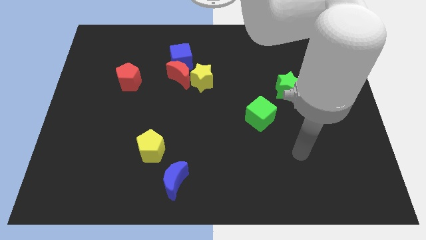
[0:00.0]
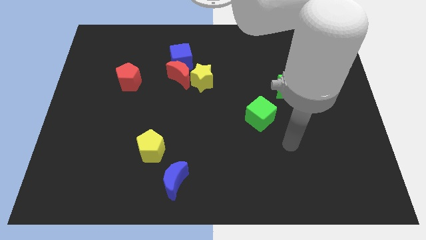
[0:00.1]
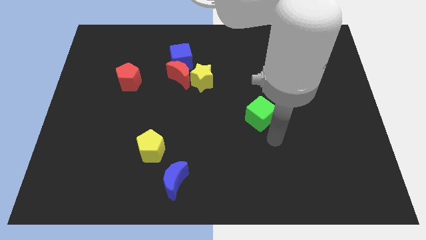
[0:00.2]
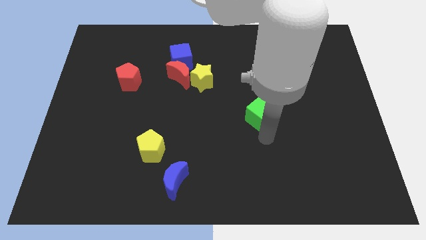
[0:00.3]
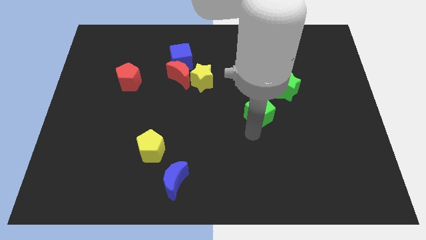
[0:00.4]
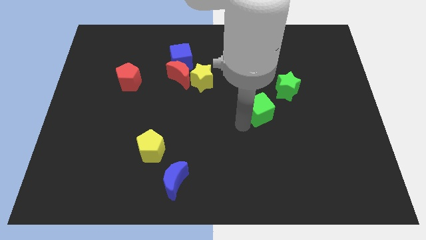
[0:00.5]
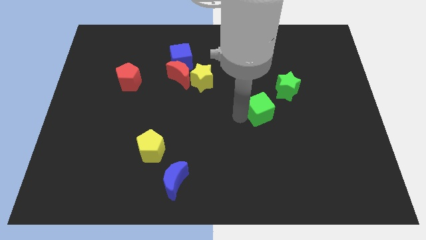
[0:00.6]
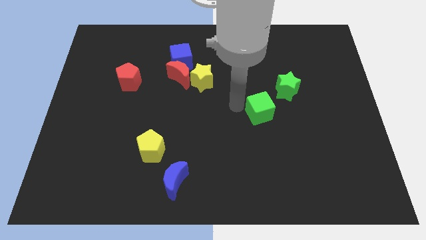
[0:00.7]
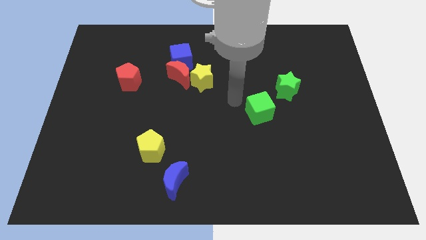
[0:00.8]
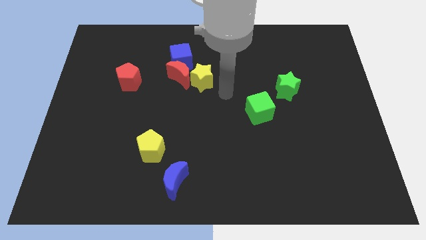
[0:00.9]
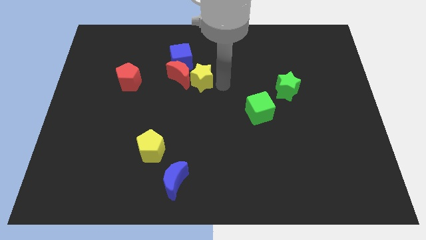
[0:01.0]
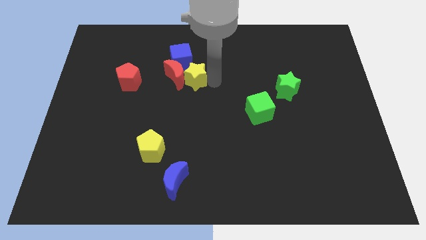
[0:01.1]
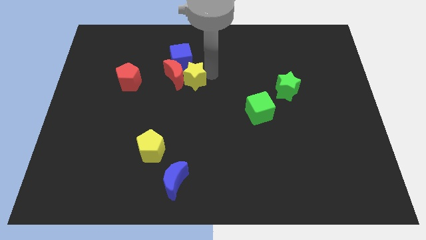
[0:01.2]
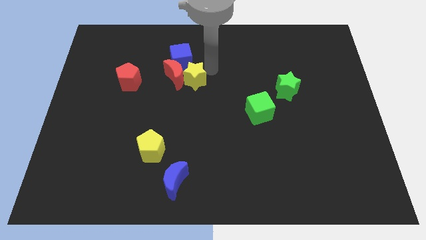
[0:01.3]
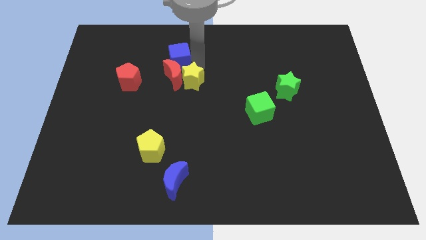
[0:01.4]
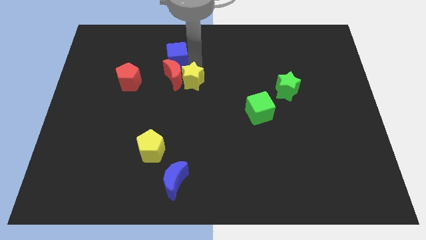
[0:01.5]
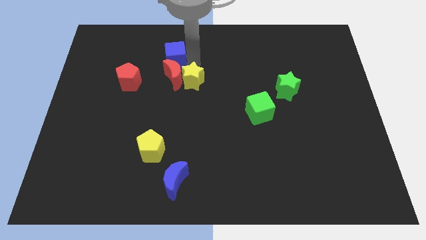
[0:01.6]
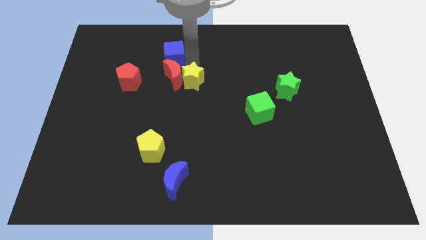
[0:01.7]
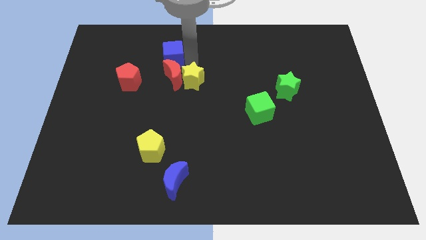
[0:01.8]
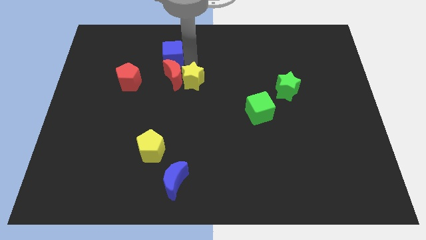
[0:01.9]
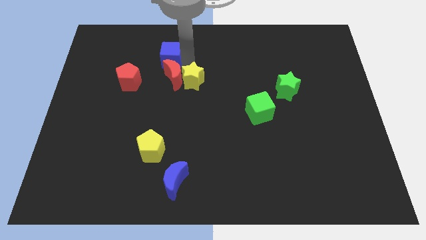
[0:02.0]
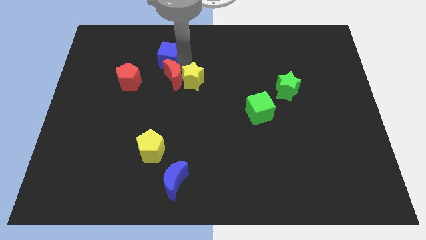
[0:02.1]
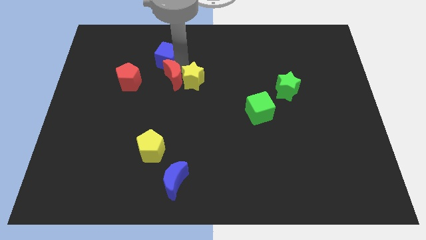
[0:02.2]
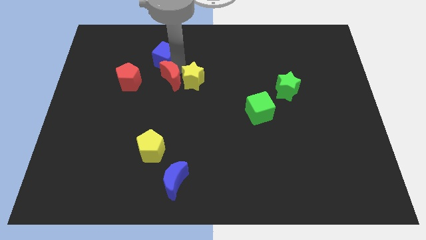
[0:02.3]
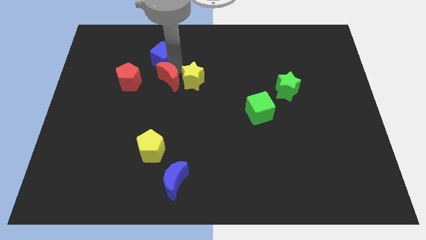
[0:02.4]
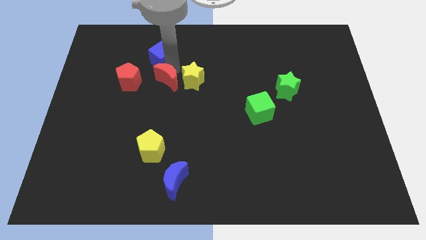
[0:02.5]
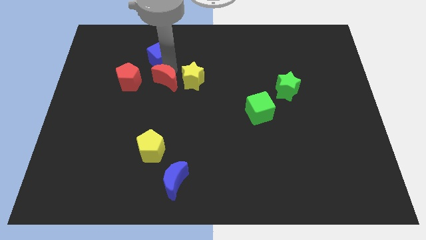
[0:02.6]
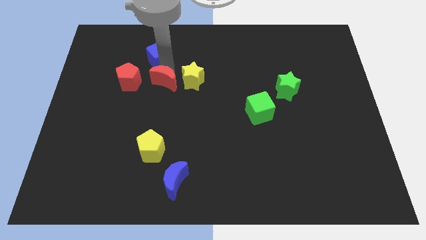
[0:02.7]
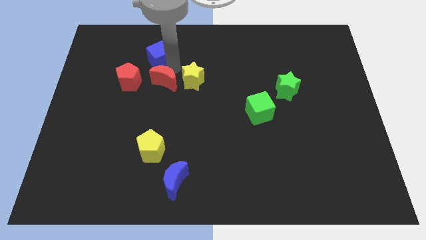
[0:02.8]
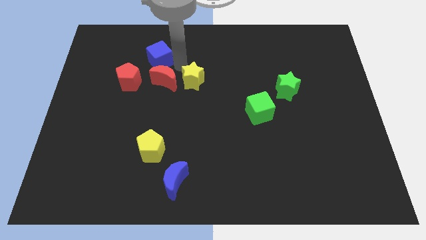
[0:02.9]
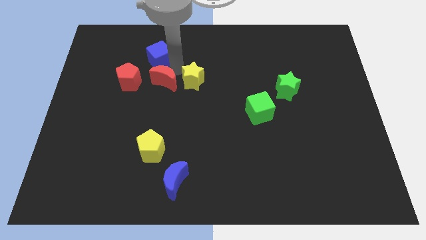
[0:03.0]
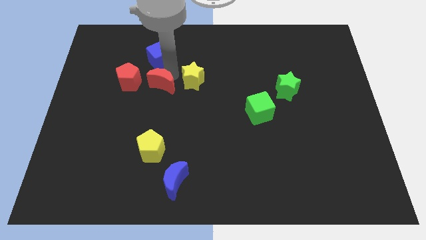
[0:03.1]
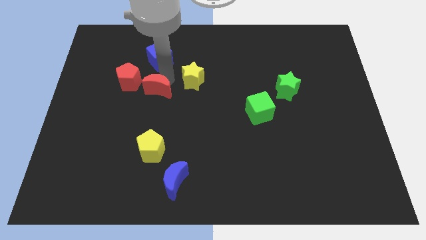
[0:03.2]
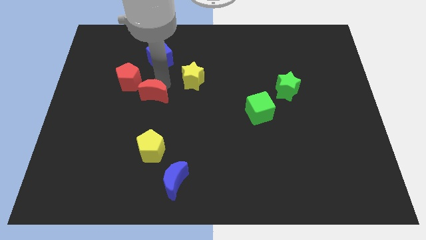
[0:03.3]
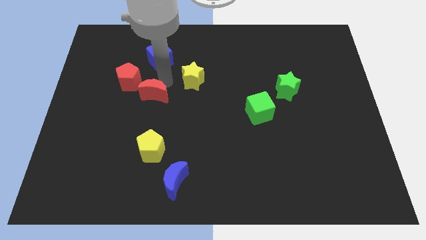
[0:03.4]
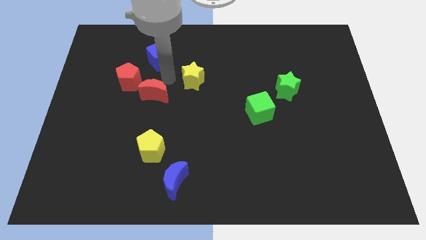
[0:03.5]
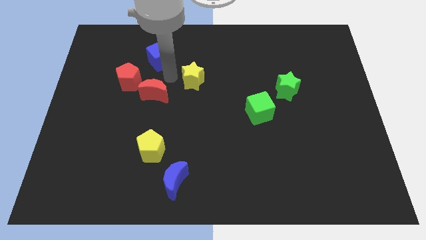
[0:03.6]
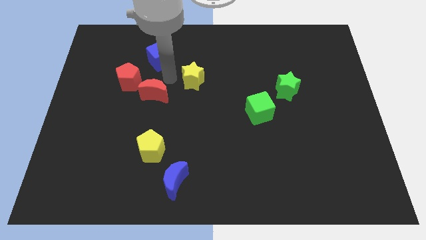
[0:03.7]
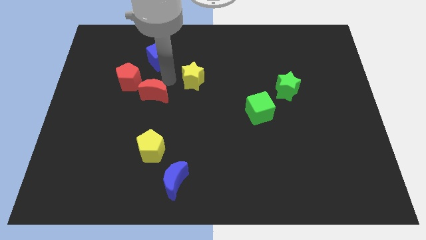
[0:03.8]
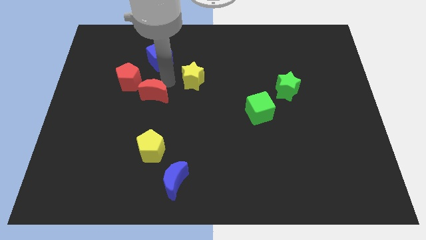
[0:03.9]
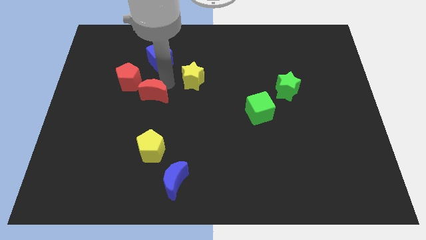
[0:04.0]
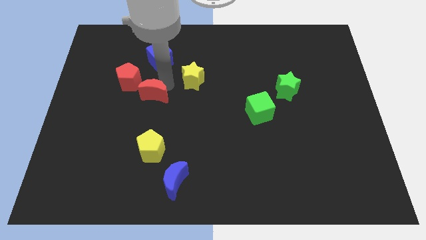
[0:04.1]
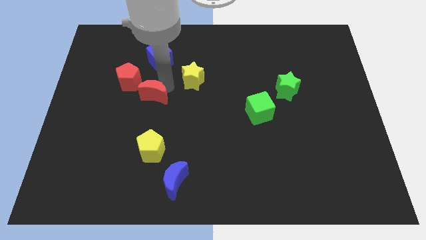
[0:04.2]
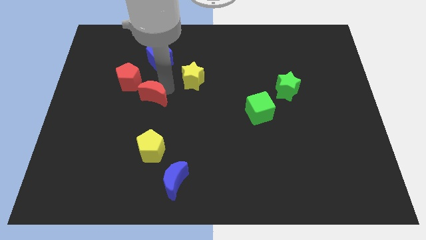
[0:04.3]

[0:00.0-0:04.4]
separate the red moon from the blue cube and yellow star

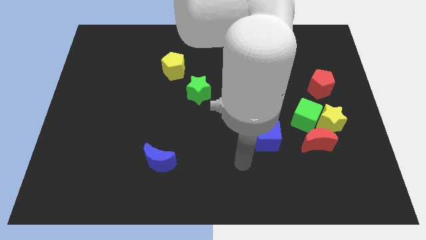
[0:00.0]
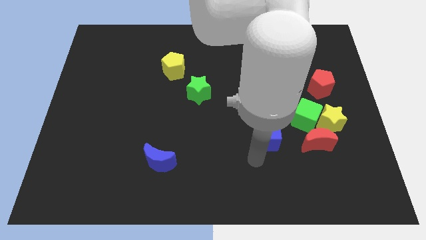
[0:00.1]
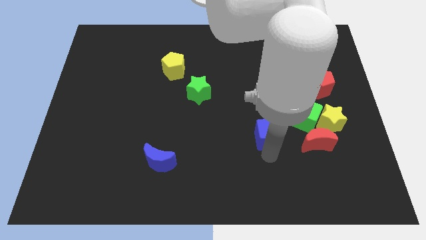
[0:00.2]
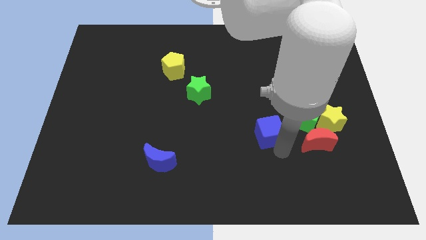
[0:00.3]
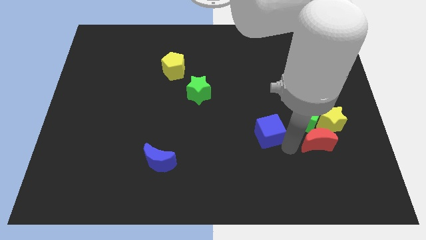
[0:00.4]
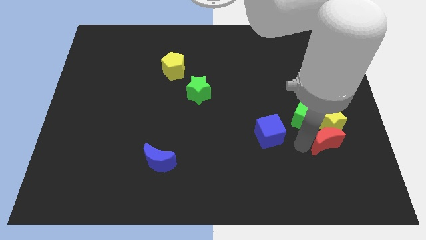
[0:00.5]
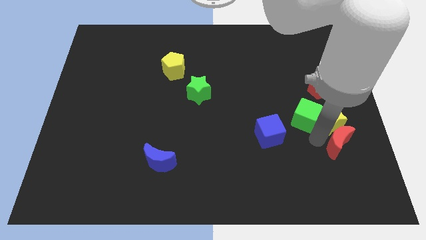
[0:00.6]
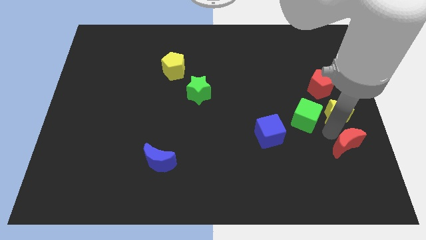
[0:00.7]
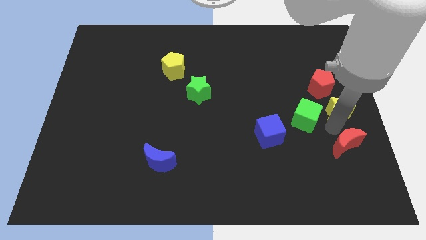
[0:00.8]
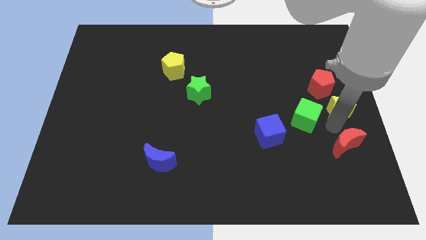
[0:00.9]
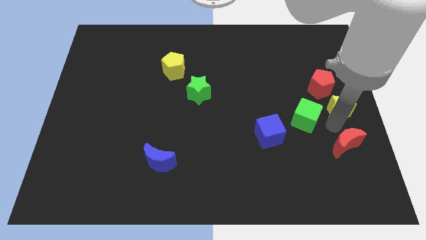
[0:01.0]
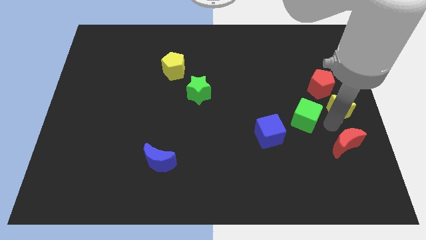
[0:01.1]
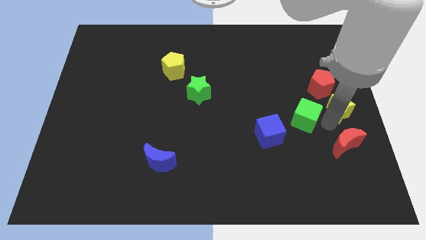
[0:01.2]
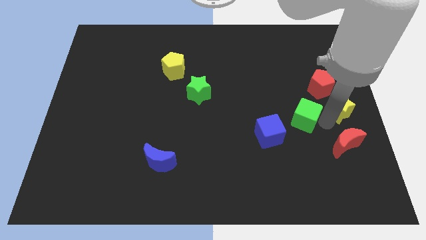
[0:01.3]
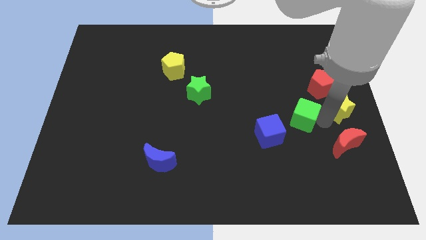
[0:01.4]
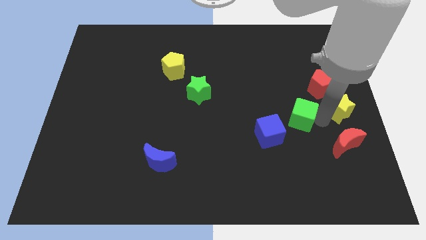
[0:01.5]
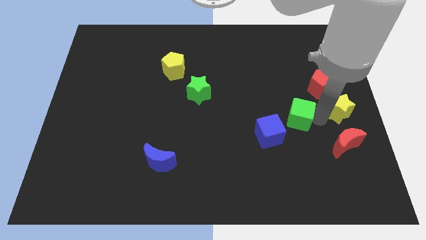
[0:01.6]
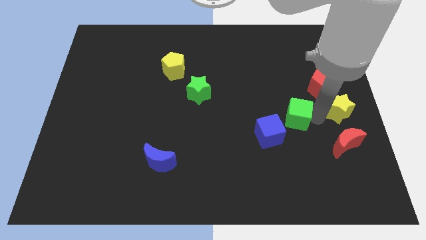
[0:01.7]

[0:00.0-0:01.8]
pull the green cube apart from the yellow star and red moon

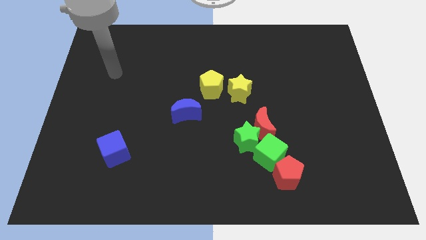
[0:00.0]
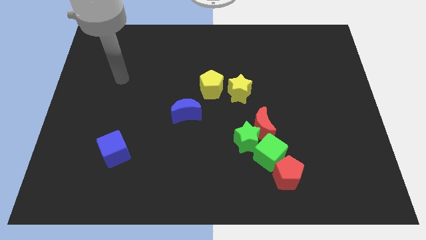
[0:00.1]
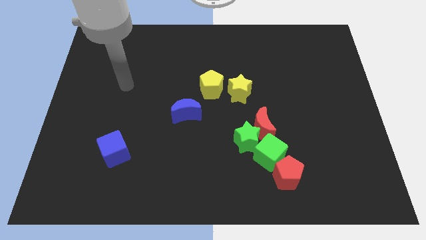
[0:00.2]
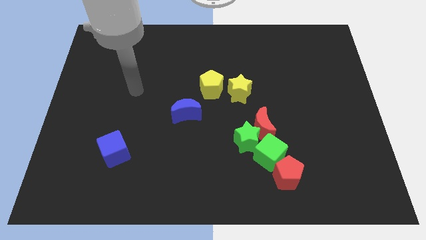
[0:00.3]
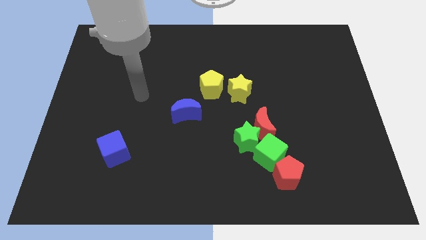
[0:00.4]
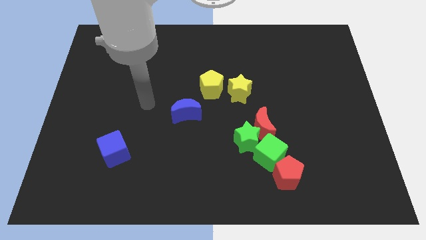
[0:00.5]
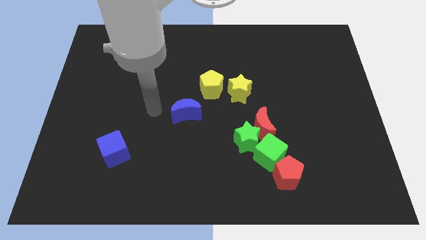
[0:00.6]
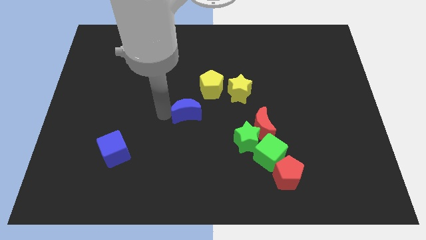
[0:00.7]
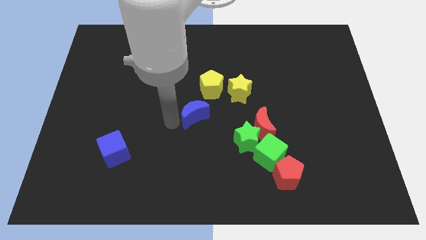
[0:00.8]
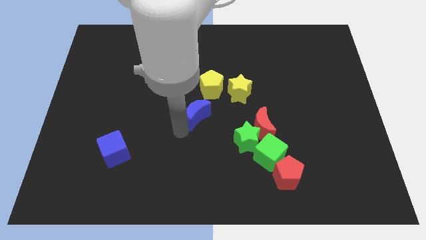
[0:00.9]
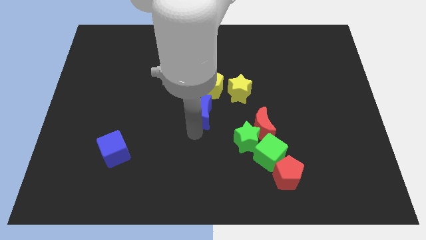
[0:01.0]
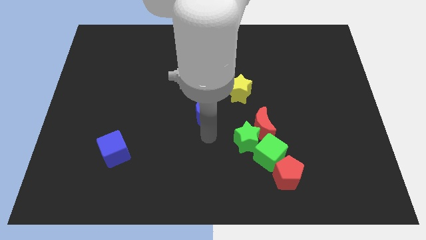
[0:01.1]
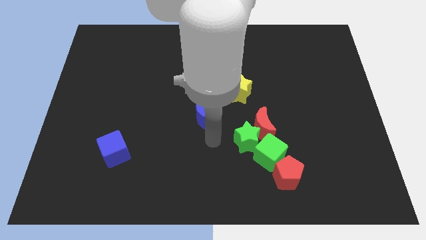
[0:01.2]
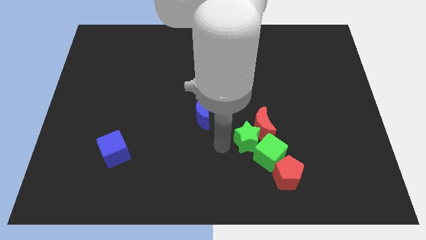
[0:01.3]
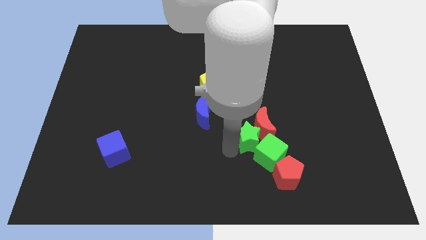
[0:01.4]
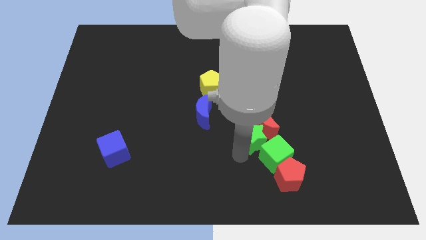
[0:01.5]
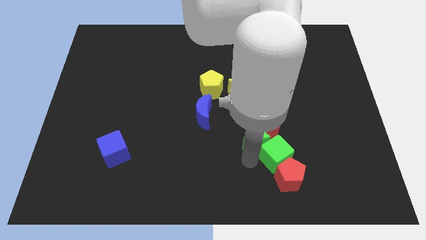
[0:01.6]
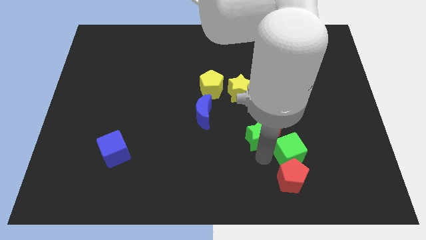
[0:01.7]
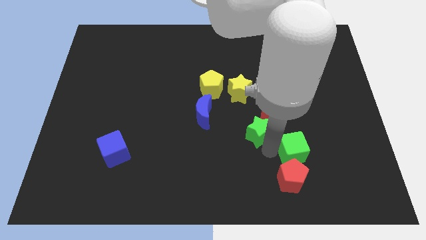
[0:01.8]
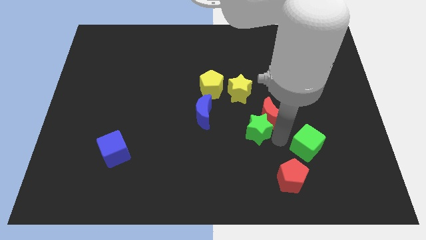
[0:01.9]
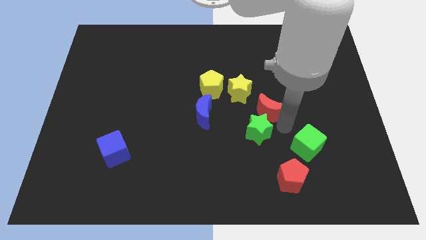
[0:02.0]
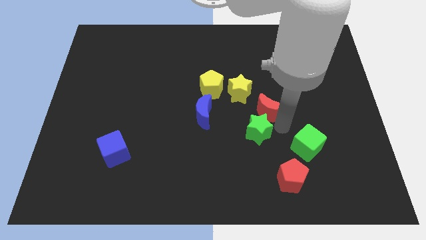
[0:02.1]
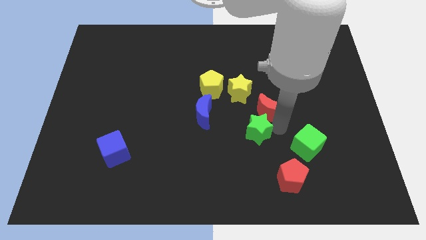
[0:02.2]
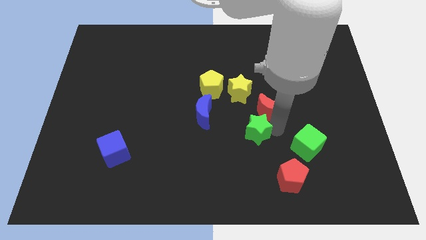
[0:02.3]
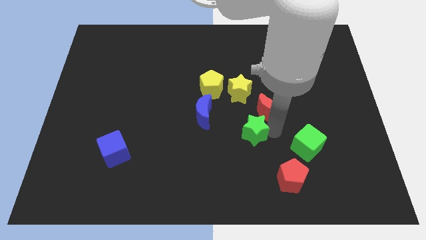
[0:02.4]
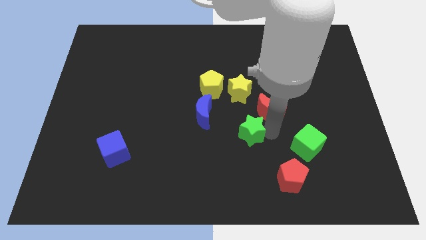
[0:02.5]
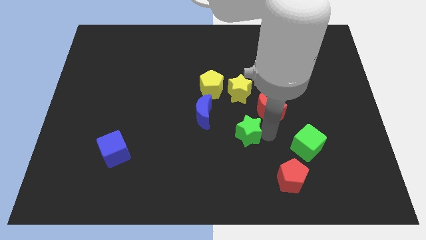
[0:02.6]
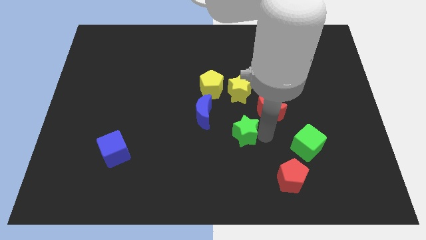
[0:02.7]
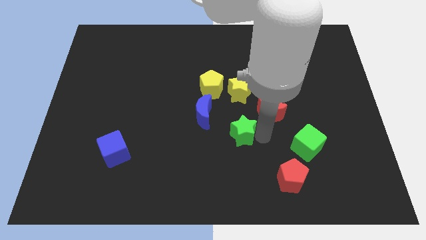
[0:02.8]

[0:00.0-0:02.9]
pull the green star apart from the red moon and green cube

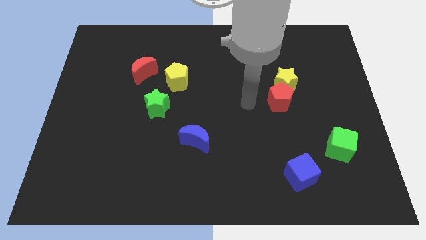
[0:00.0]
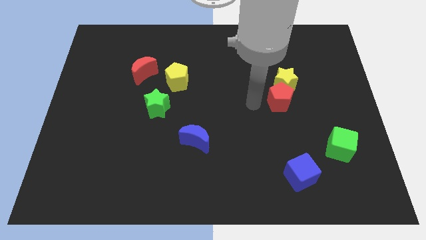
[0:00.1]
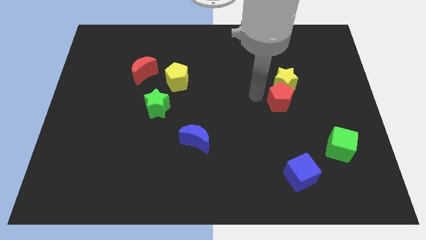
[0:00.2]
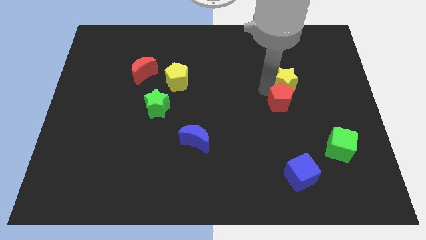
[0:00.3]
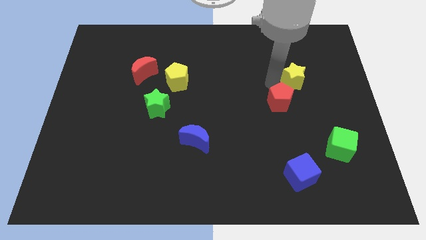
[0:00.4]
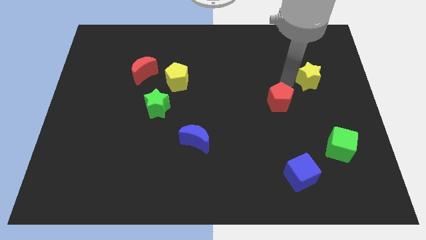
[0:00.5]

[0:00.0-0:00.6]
pull the red pentagon apart from the yellow star
